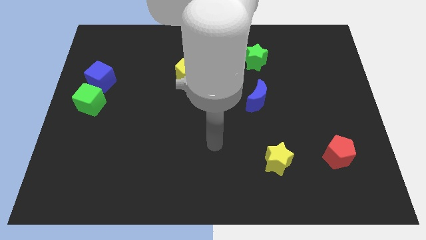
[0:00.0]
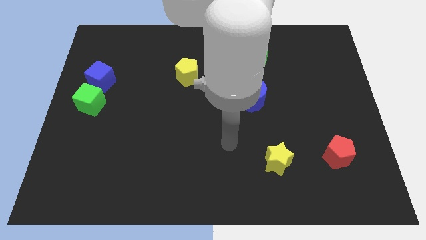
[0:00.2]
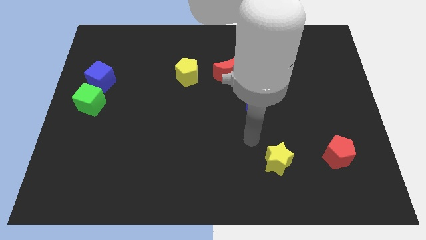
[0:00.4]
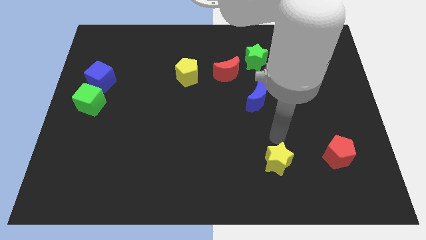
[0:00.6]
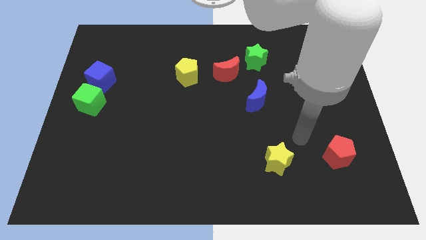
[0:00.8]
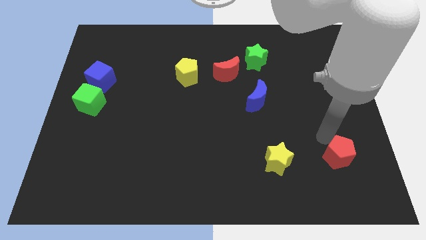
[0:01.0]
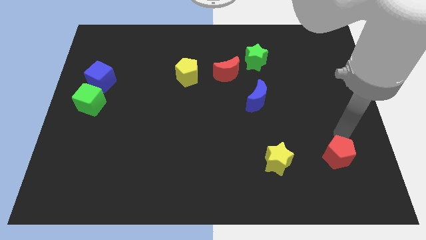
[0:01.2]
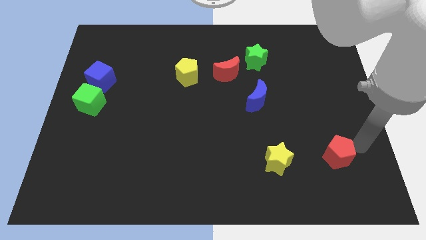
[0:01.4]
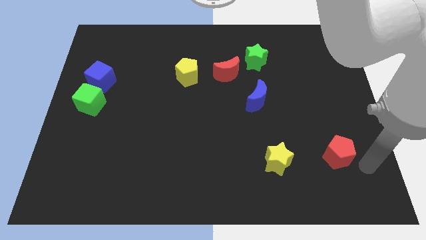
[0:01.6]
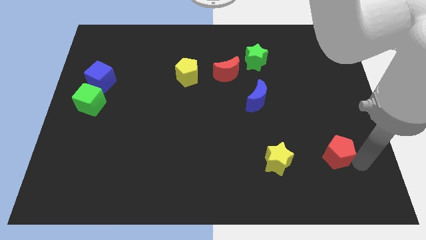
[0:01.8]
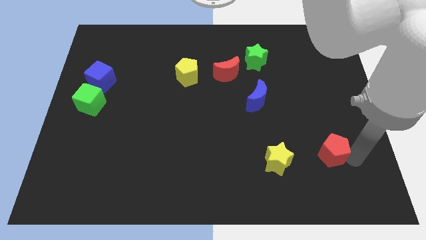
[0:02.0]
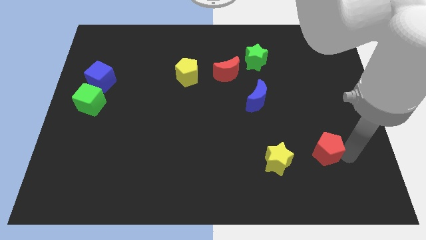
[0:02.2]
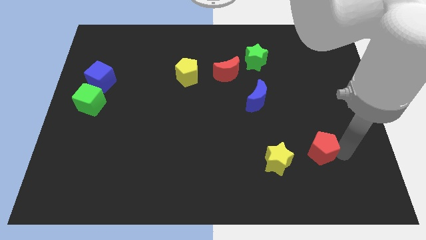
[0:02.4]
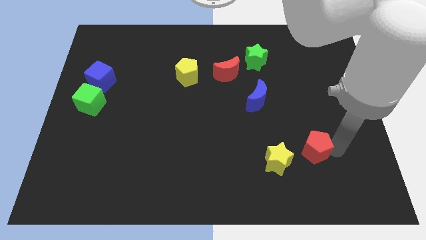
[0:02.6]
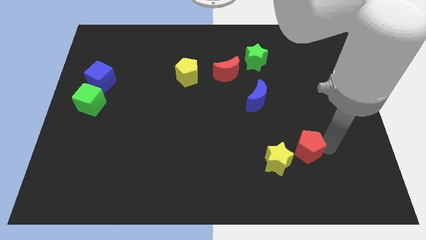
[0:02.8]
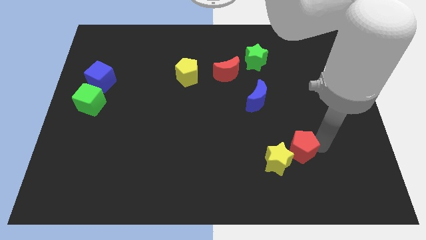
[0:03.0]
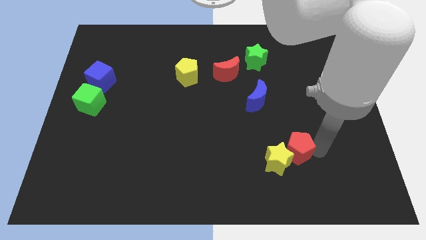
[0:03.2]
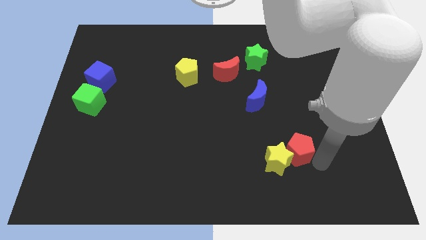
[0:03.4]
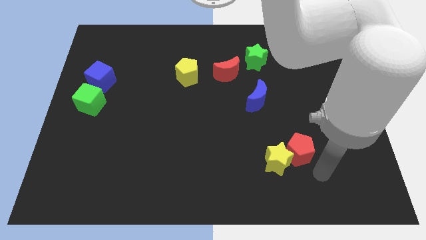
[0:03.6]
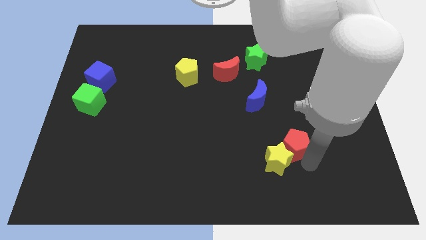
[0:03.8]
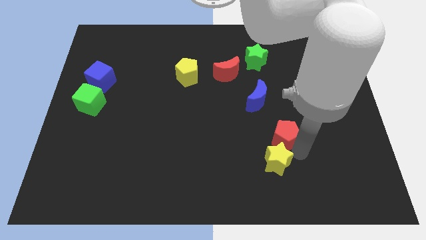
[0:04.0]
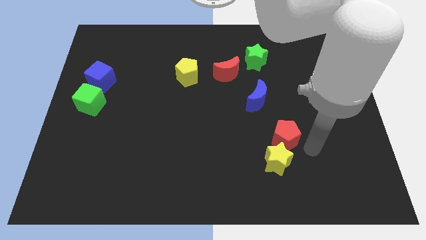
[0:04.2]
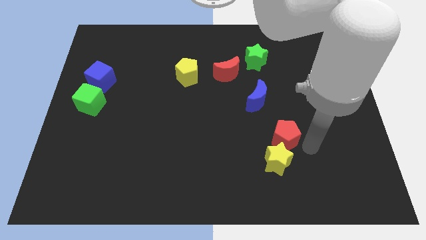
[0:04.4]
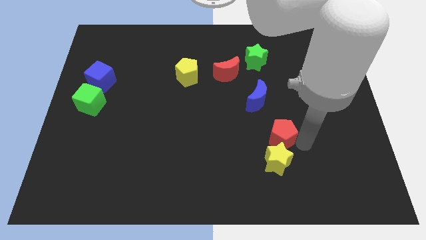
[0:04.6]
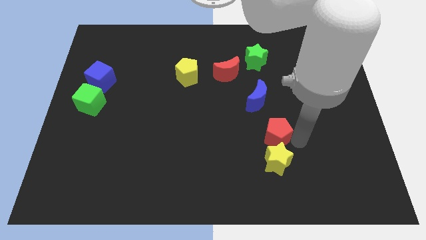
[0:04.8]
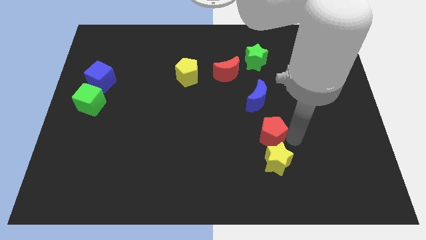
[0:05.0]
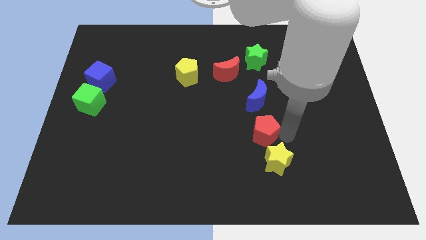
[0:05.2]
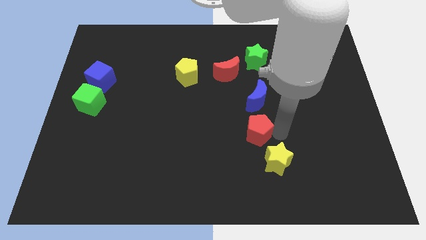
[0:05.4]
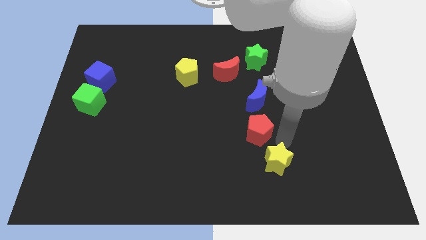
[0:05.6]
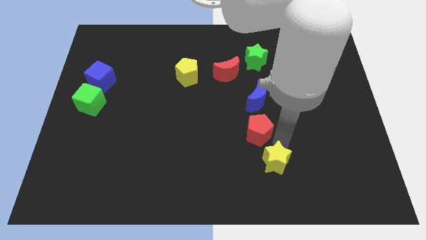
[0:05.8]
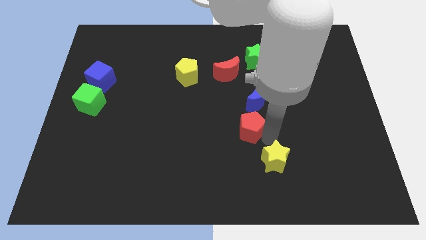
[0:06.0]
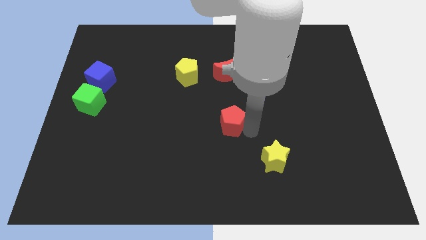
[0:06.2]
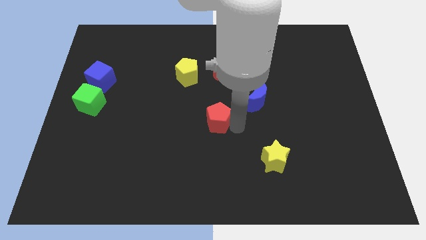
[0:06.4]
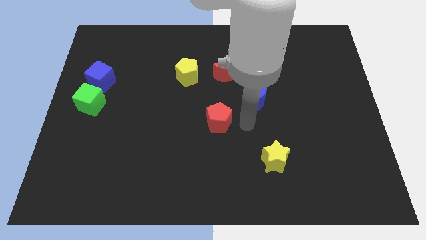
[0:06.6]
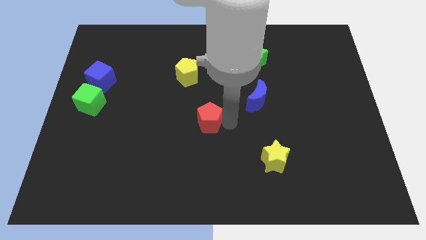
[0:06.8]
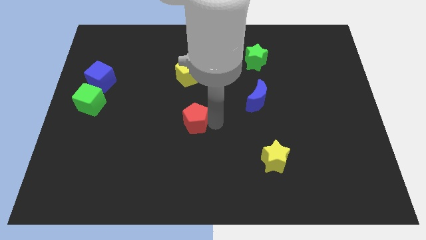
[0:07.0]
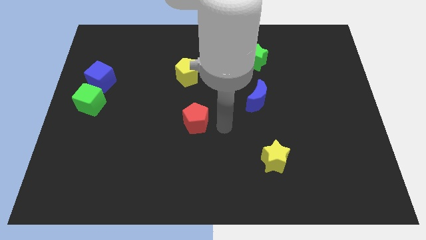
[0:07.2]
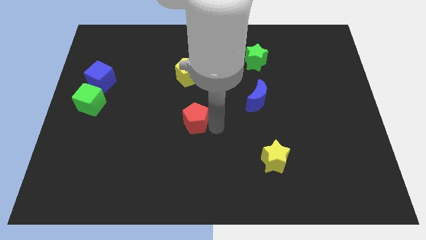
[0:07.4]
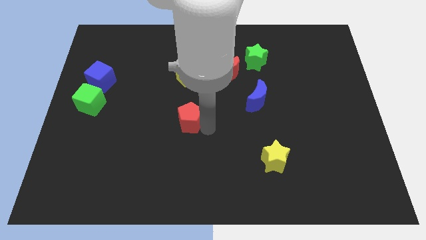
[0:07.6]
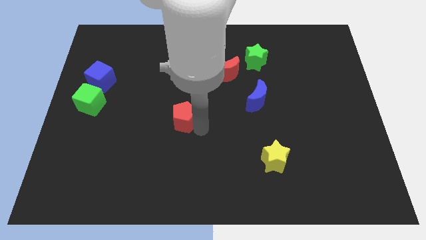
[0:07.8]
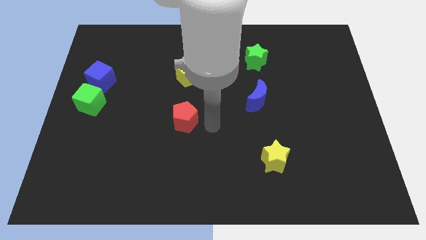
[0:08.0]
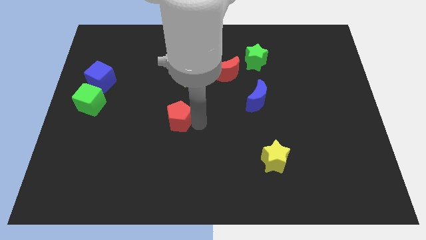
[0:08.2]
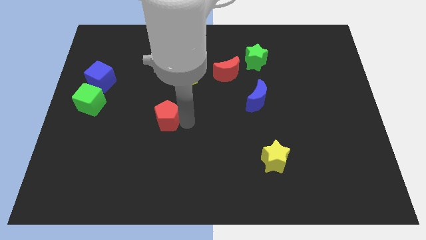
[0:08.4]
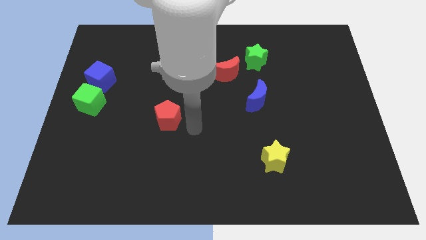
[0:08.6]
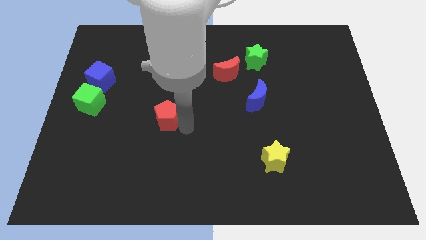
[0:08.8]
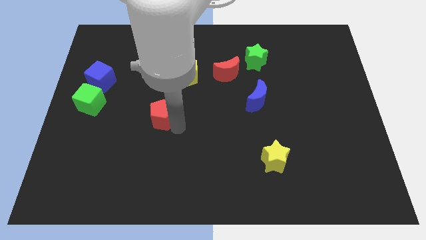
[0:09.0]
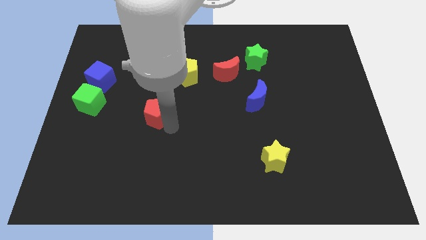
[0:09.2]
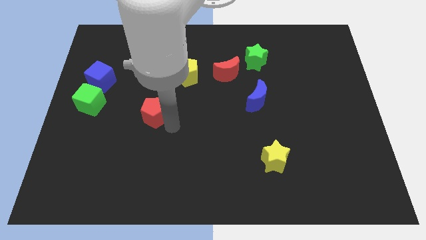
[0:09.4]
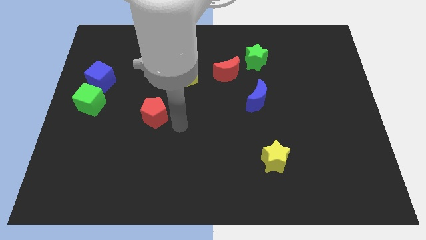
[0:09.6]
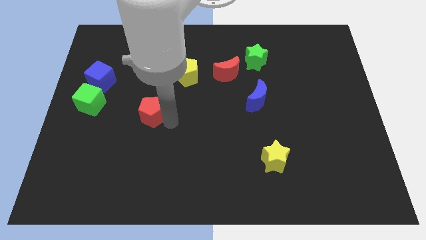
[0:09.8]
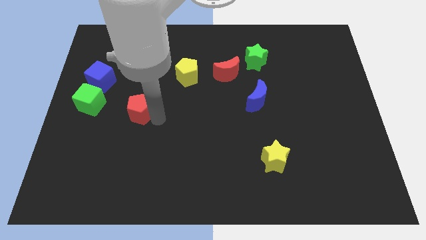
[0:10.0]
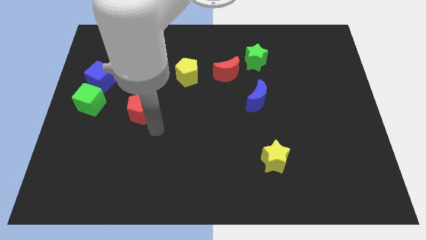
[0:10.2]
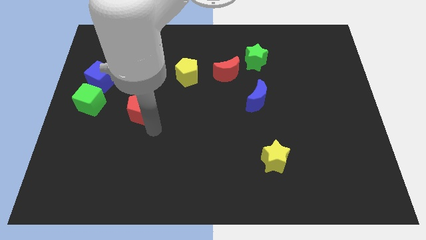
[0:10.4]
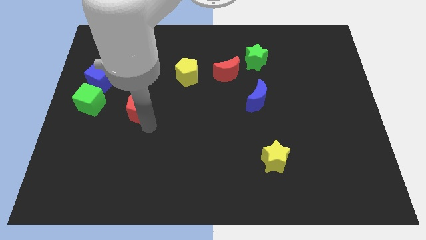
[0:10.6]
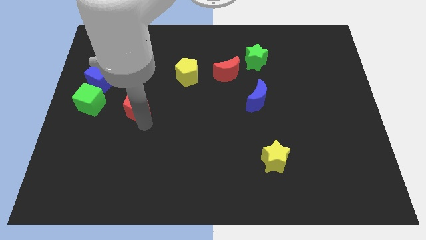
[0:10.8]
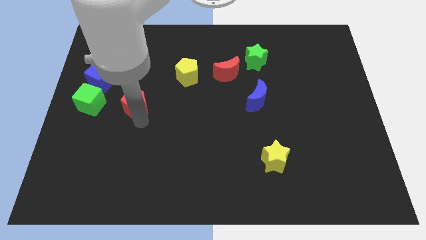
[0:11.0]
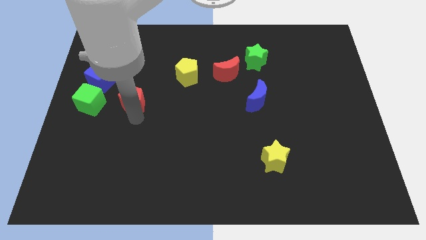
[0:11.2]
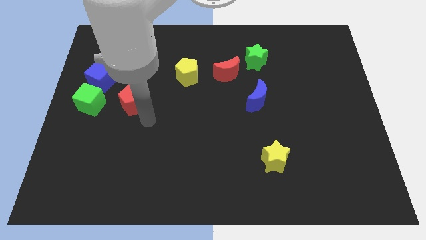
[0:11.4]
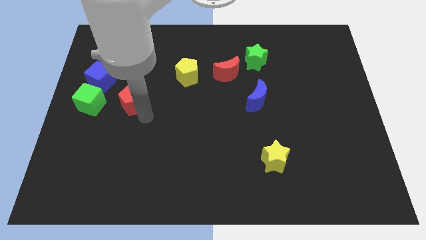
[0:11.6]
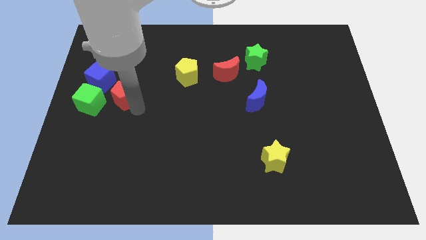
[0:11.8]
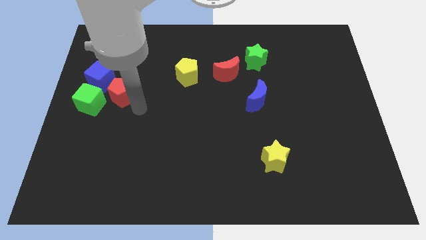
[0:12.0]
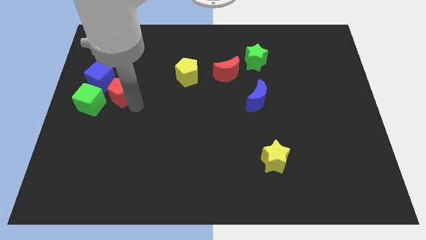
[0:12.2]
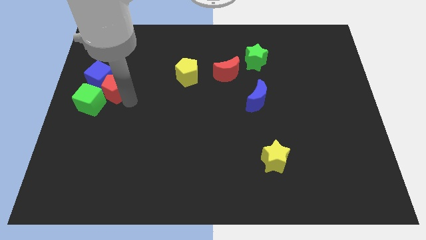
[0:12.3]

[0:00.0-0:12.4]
move the red pentagon towards the blue cube

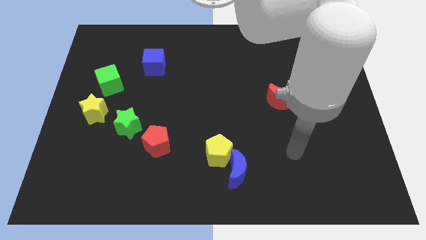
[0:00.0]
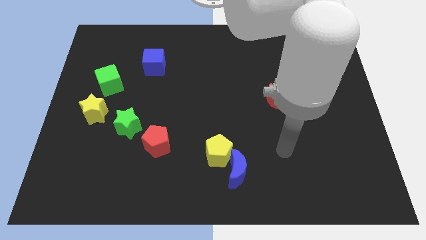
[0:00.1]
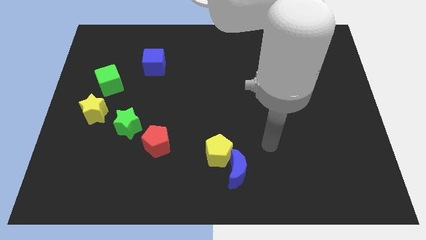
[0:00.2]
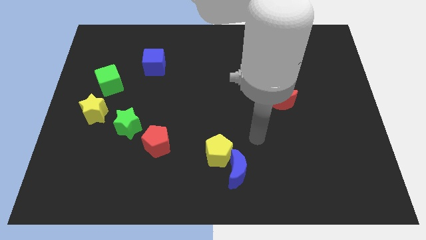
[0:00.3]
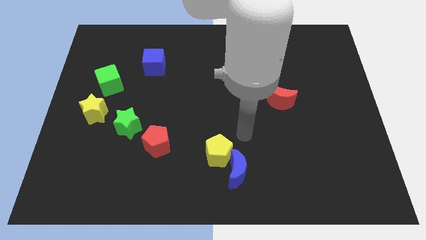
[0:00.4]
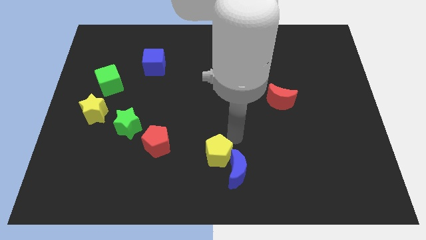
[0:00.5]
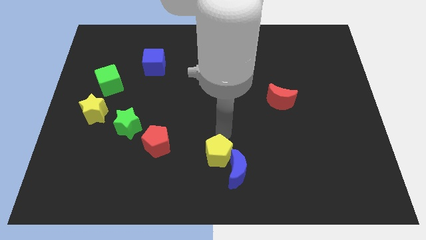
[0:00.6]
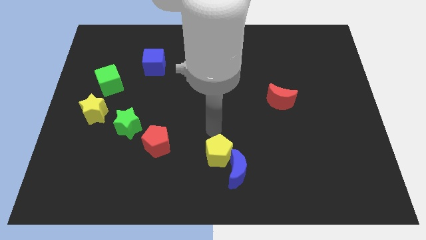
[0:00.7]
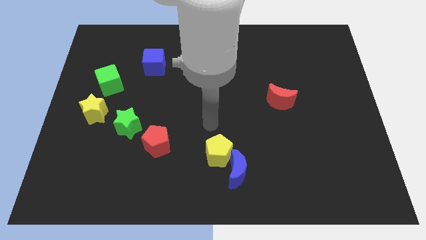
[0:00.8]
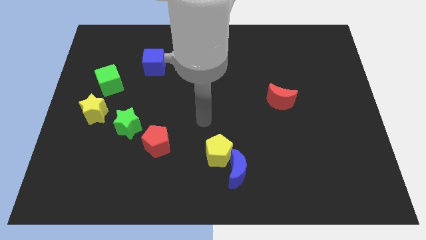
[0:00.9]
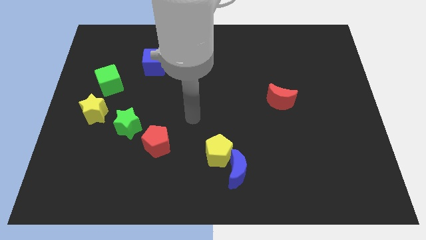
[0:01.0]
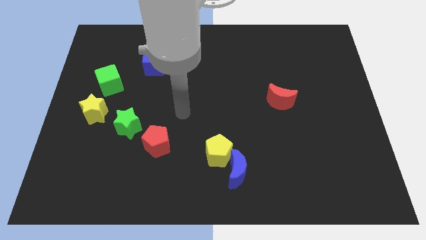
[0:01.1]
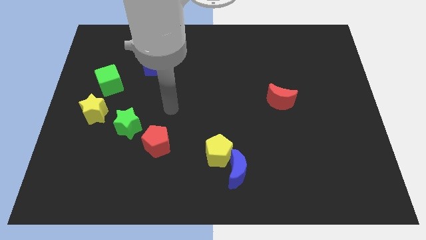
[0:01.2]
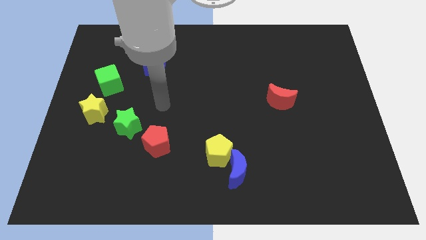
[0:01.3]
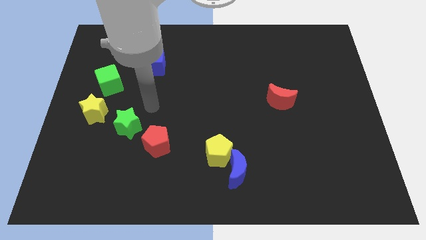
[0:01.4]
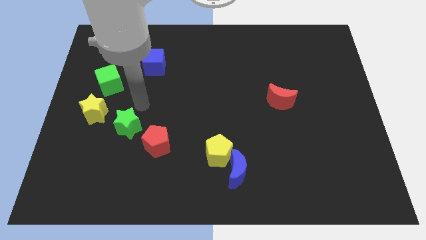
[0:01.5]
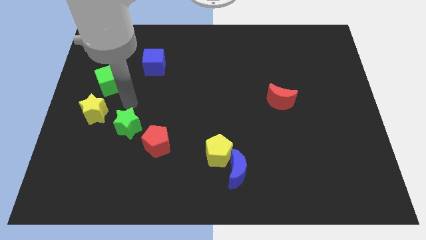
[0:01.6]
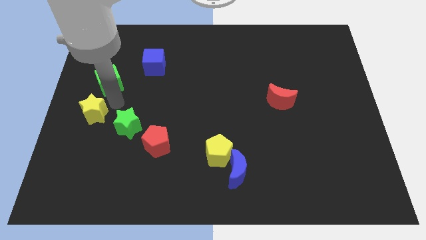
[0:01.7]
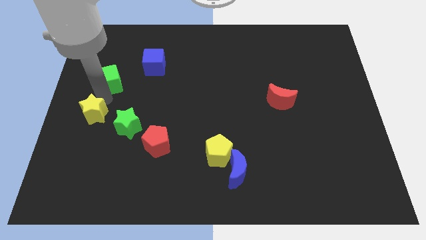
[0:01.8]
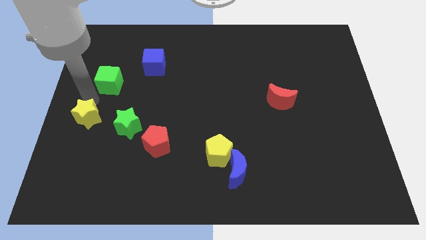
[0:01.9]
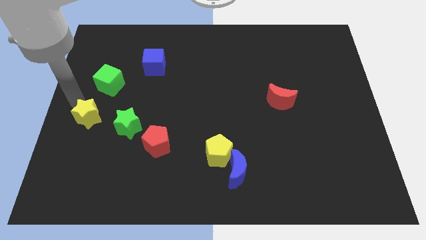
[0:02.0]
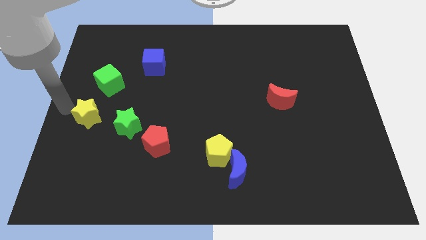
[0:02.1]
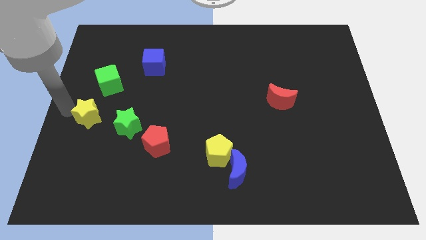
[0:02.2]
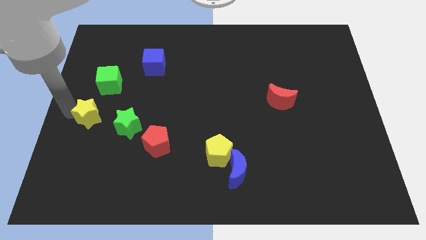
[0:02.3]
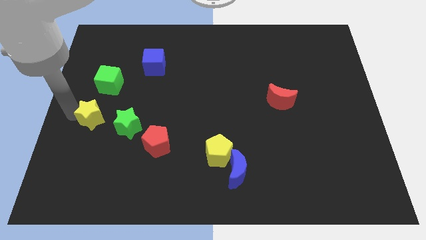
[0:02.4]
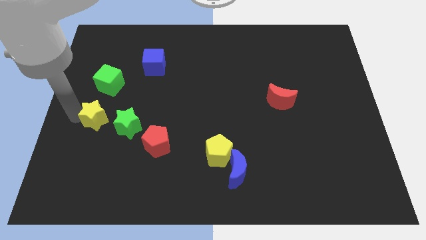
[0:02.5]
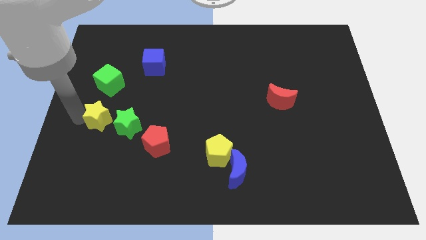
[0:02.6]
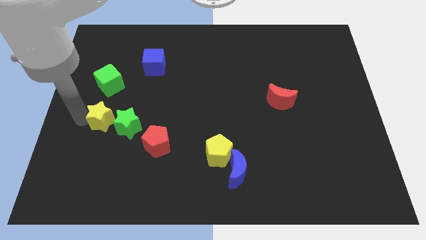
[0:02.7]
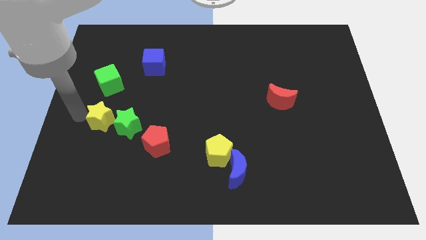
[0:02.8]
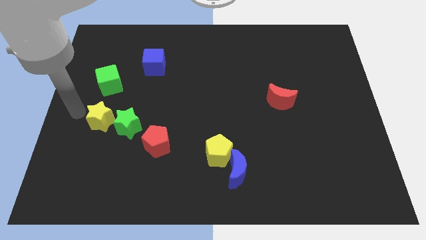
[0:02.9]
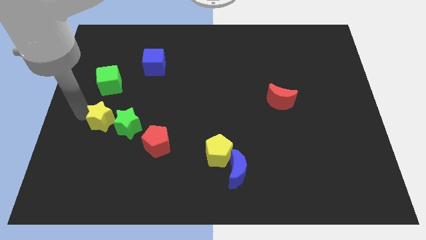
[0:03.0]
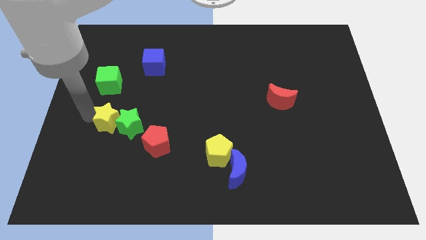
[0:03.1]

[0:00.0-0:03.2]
push the yellow star next to the green star
